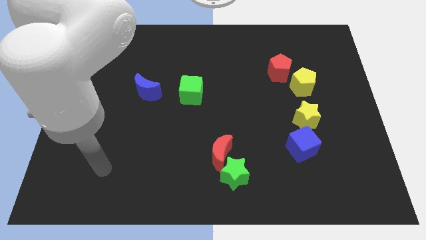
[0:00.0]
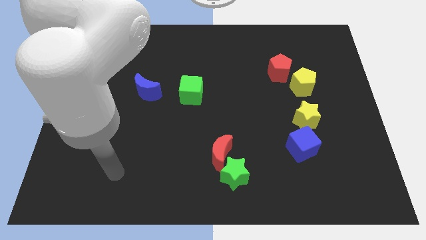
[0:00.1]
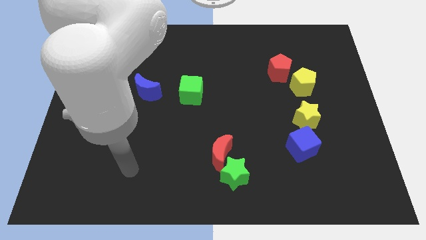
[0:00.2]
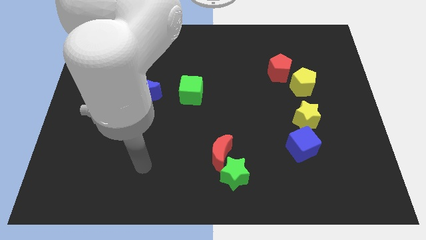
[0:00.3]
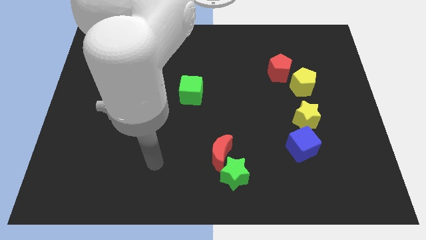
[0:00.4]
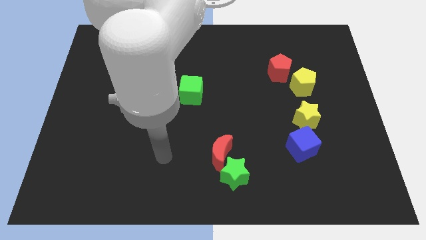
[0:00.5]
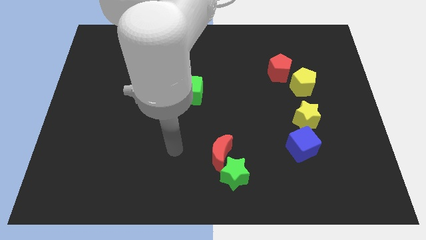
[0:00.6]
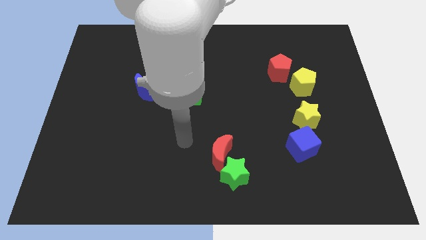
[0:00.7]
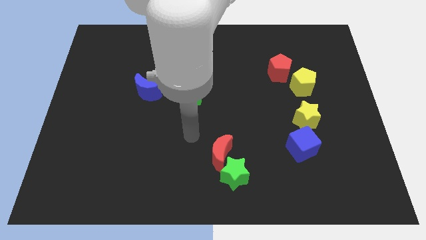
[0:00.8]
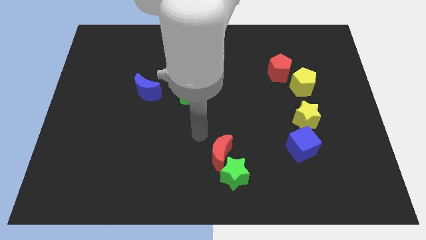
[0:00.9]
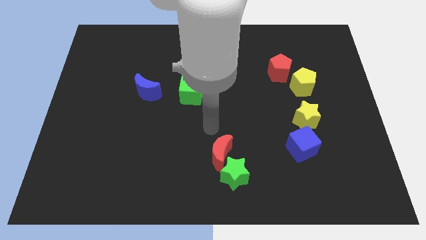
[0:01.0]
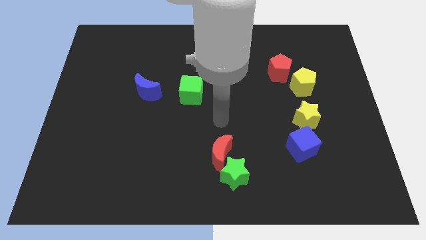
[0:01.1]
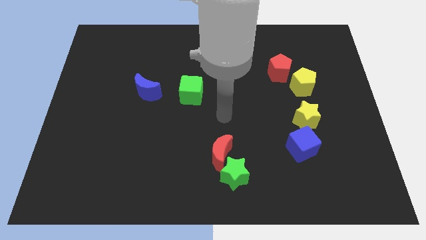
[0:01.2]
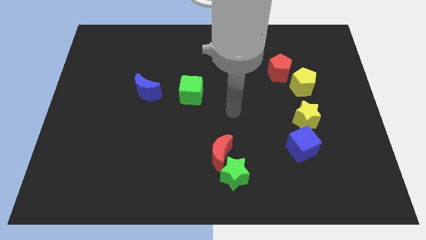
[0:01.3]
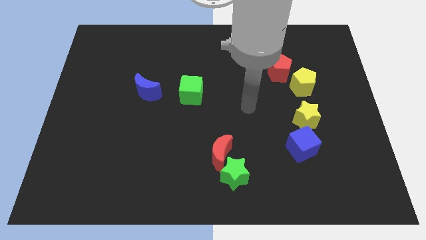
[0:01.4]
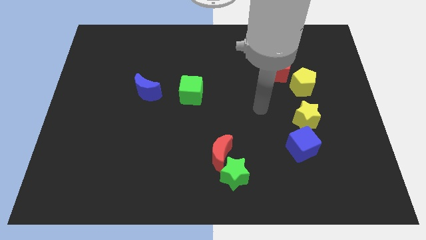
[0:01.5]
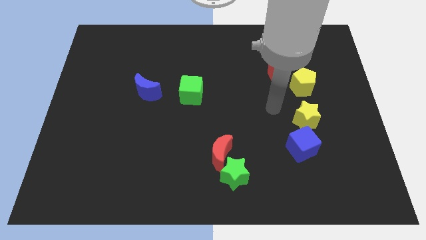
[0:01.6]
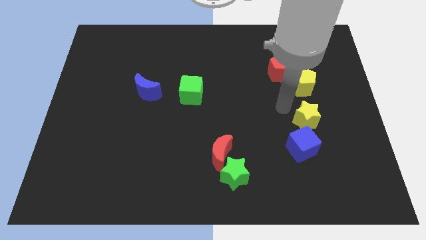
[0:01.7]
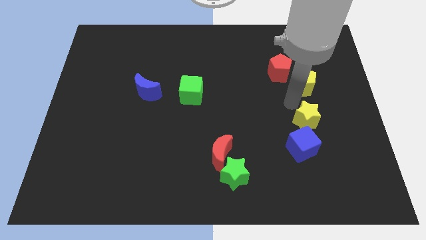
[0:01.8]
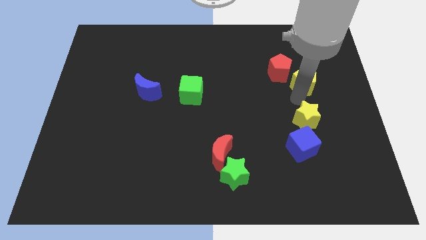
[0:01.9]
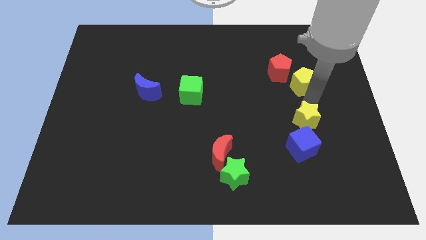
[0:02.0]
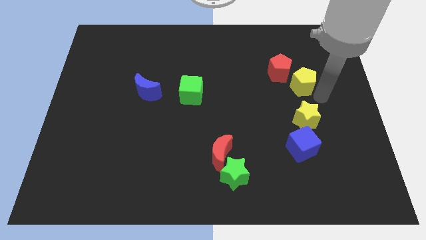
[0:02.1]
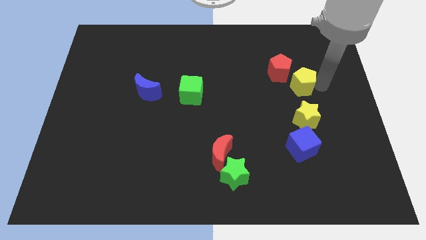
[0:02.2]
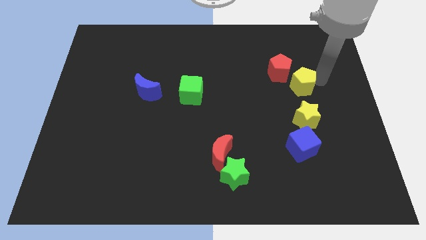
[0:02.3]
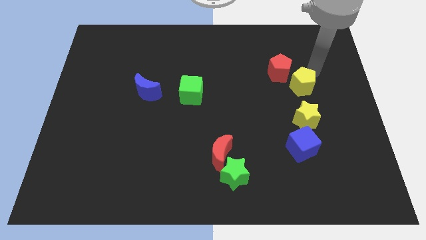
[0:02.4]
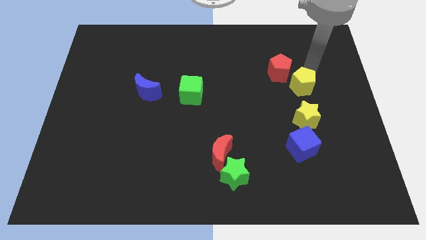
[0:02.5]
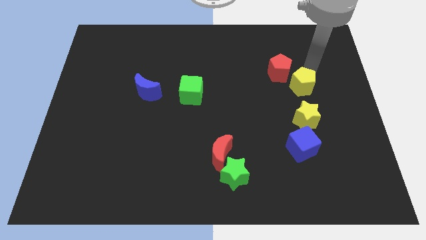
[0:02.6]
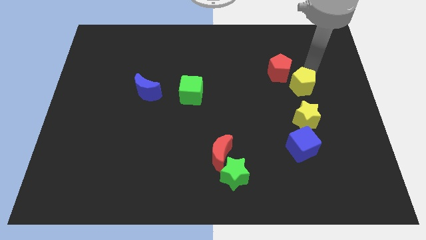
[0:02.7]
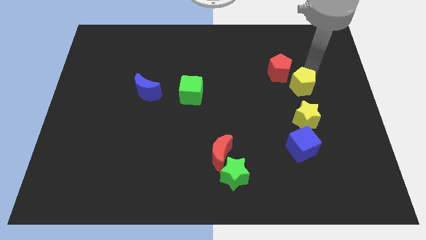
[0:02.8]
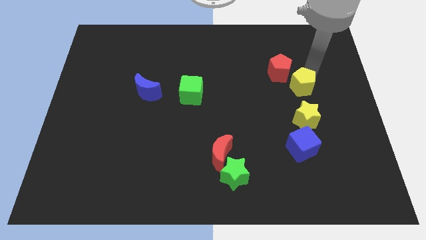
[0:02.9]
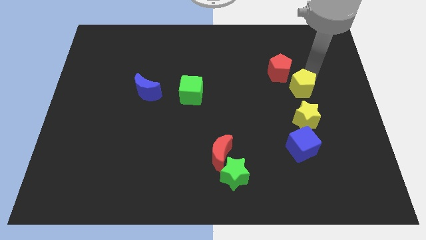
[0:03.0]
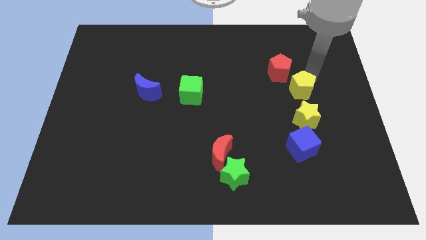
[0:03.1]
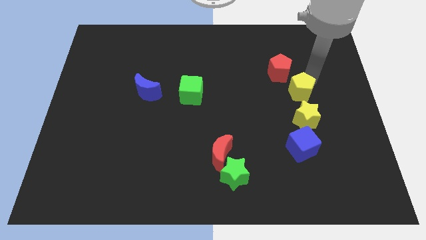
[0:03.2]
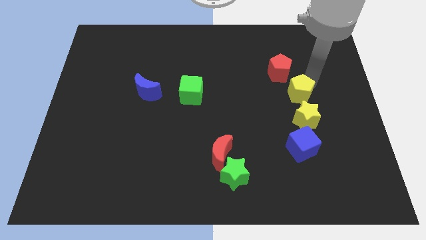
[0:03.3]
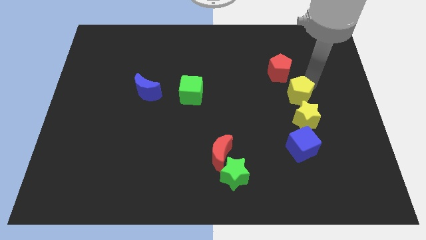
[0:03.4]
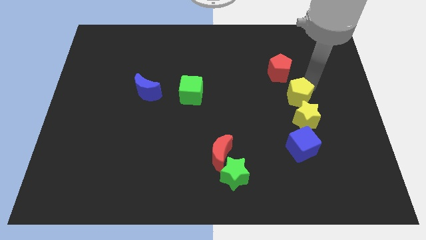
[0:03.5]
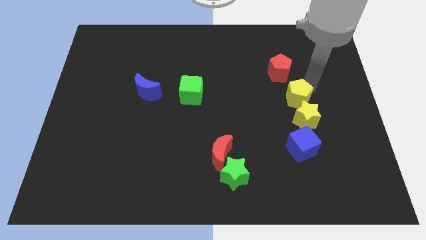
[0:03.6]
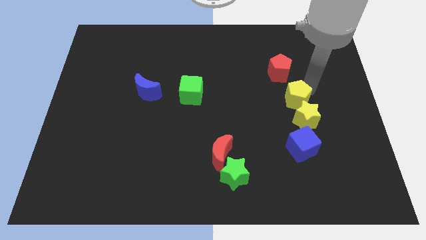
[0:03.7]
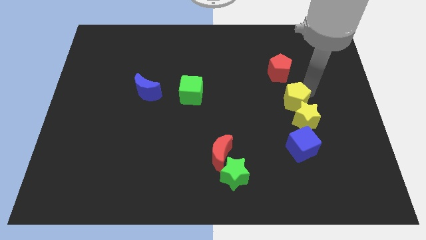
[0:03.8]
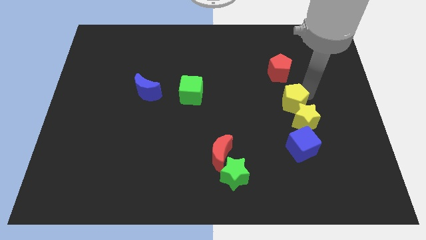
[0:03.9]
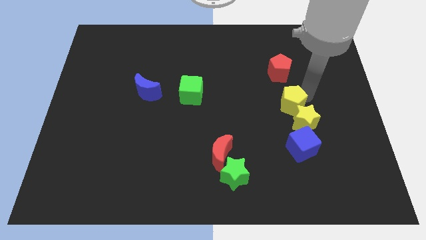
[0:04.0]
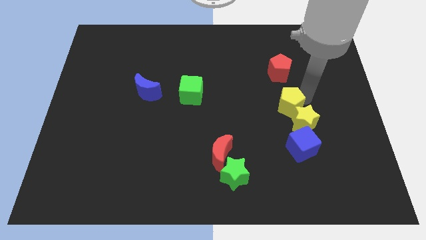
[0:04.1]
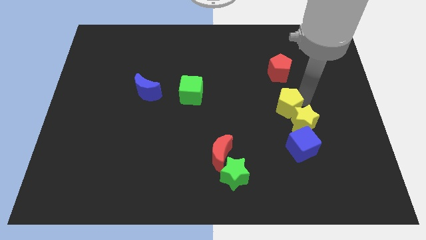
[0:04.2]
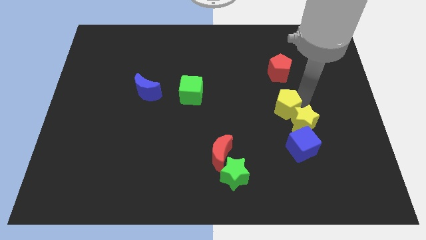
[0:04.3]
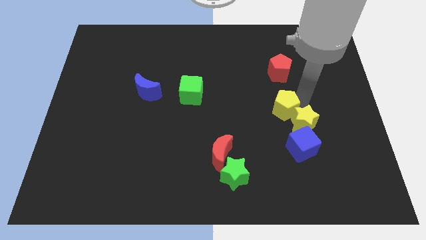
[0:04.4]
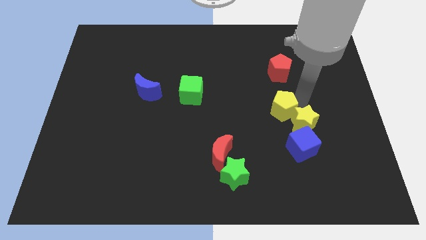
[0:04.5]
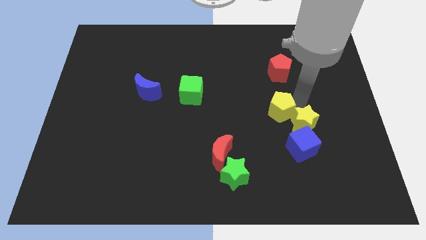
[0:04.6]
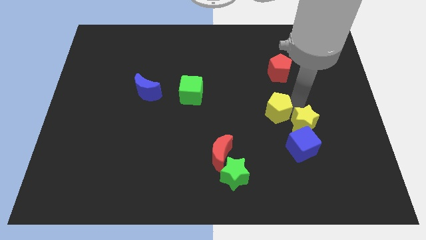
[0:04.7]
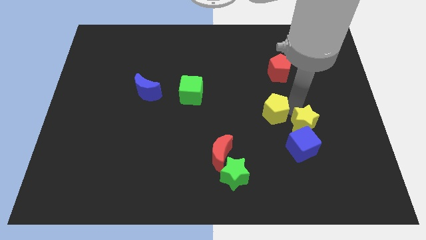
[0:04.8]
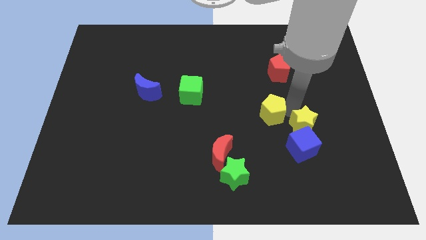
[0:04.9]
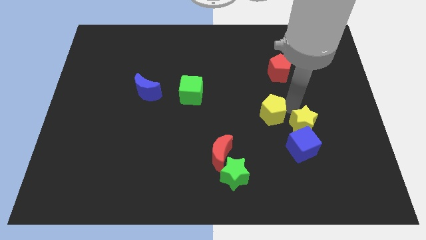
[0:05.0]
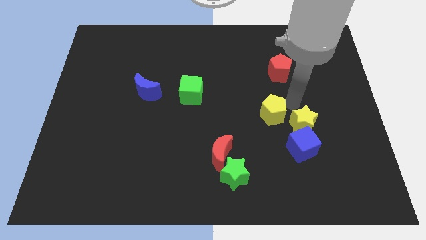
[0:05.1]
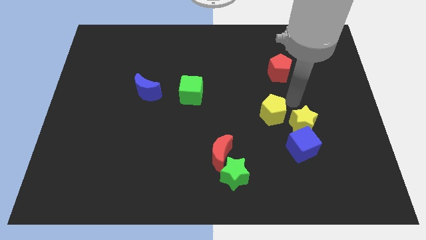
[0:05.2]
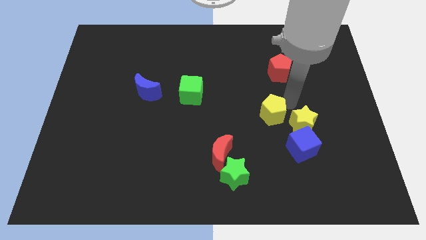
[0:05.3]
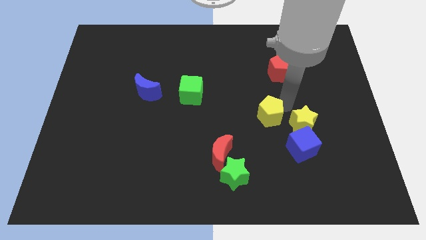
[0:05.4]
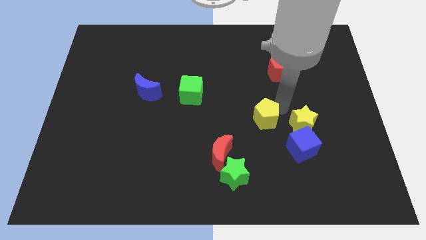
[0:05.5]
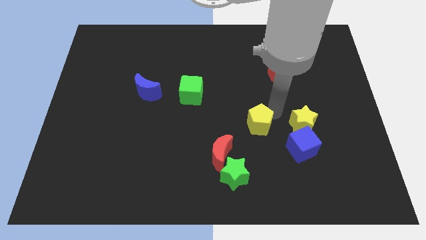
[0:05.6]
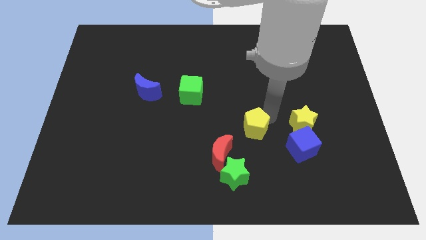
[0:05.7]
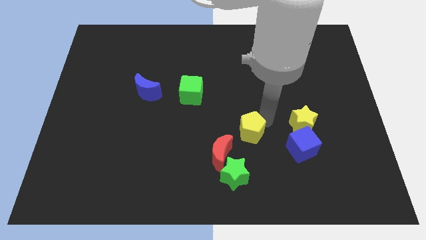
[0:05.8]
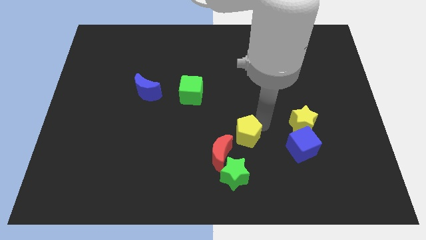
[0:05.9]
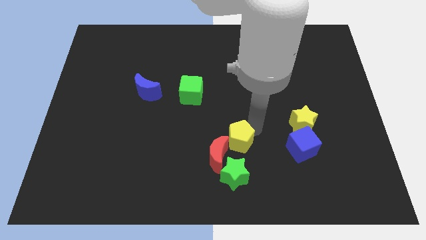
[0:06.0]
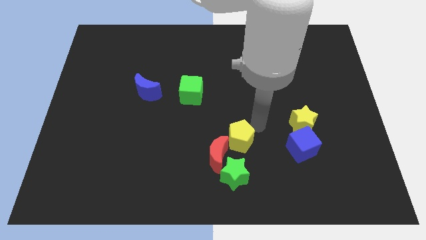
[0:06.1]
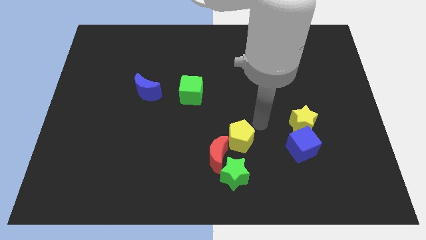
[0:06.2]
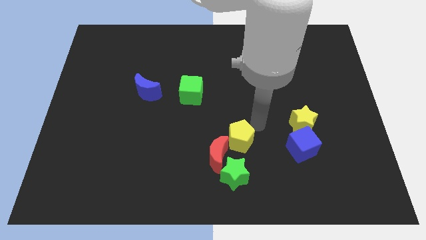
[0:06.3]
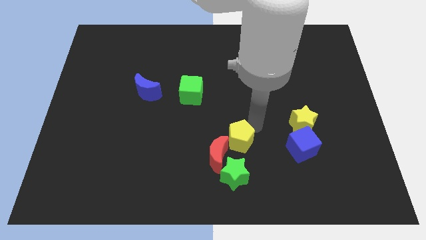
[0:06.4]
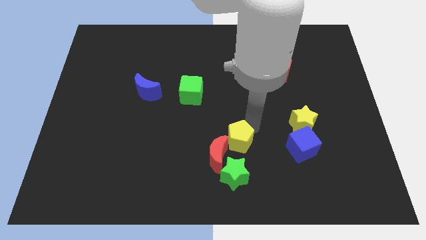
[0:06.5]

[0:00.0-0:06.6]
put the yellow pentagon to the red moon

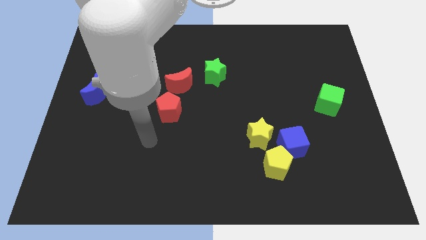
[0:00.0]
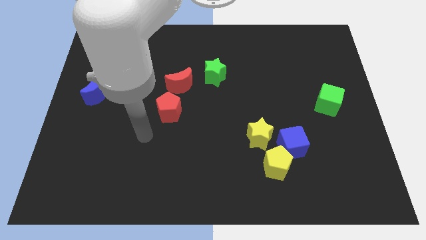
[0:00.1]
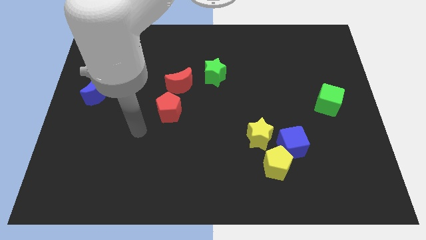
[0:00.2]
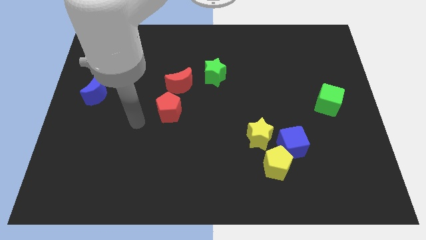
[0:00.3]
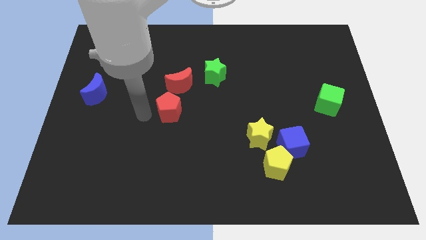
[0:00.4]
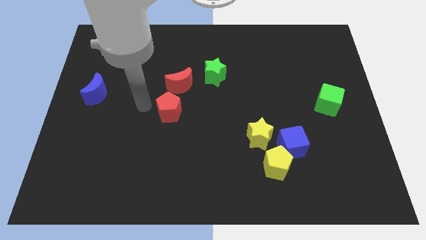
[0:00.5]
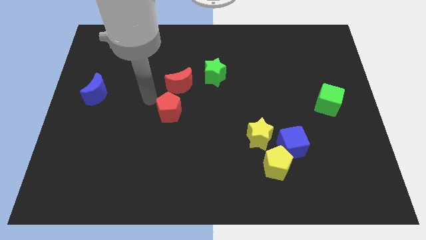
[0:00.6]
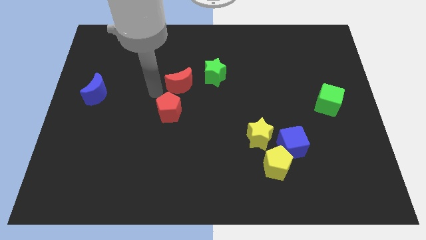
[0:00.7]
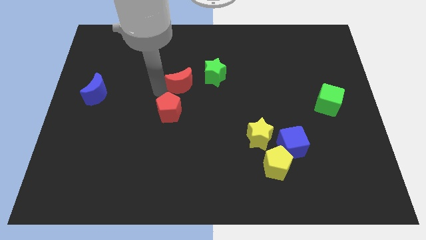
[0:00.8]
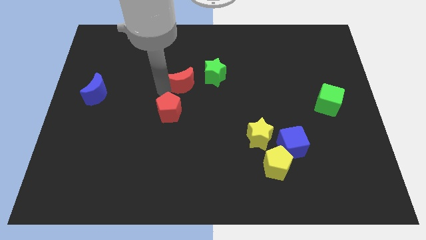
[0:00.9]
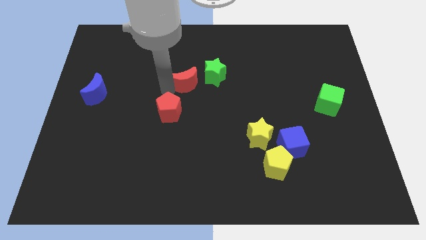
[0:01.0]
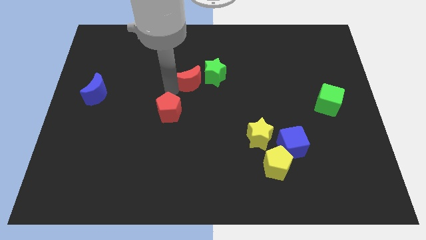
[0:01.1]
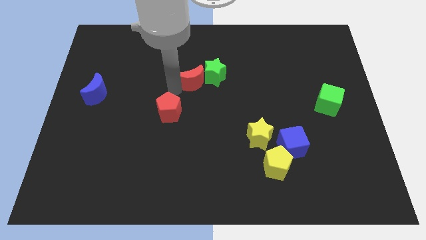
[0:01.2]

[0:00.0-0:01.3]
move the red moon next to the green star
